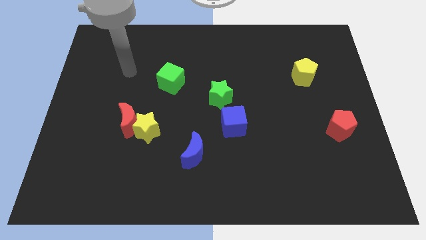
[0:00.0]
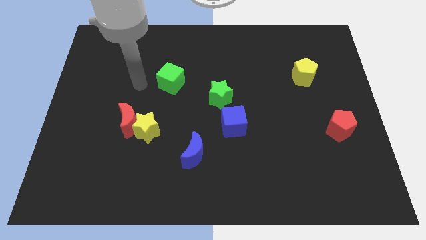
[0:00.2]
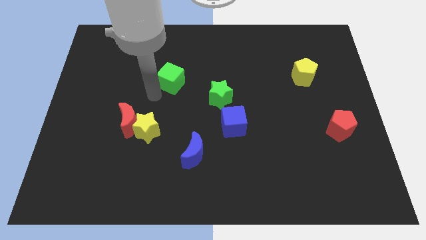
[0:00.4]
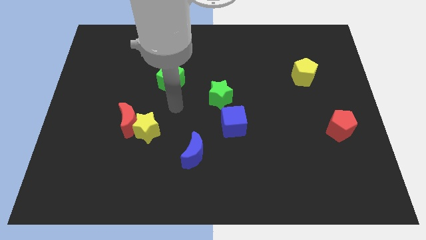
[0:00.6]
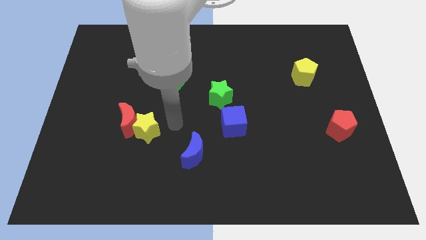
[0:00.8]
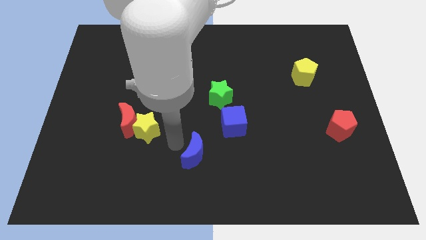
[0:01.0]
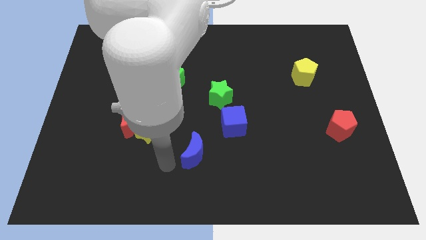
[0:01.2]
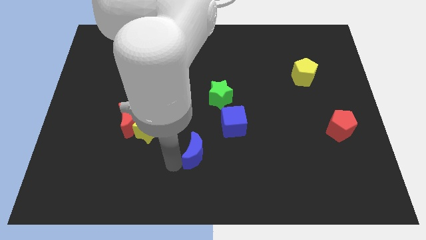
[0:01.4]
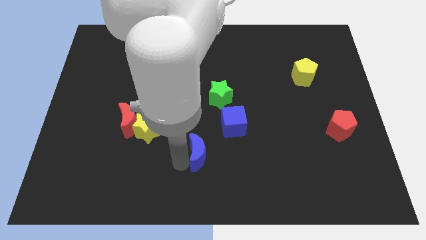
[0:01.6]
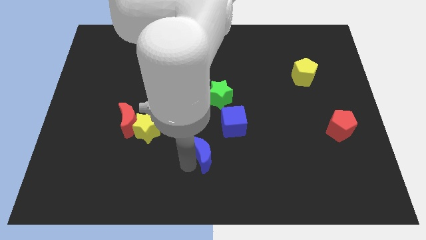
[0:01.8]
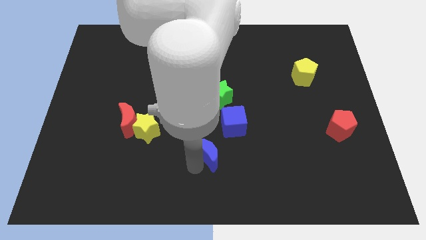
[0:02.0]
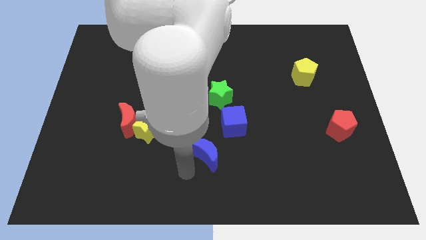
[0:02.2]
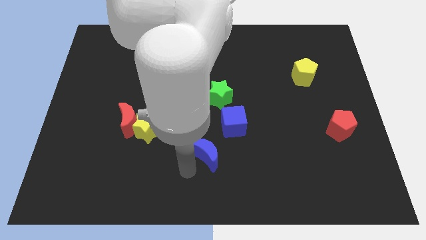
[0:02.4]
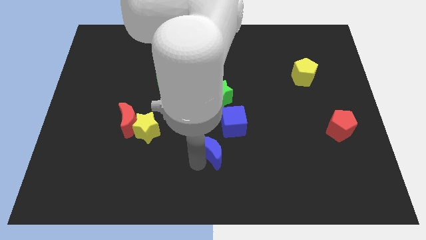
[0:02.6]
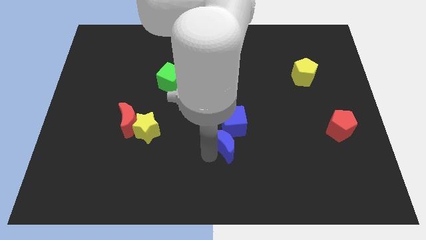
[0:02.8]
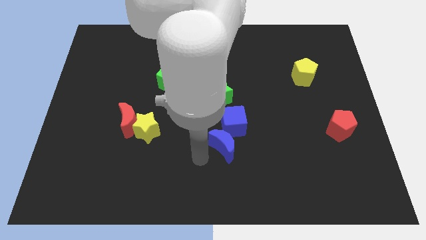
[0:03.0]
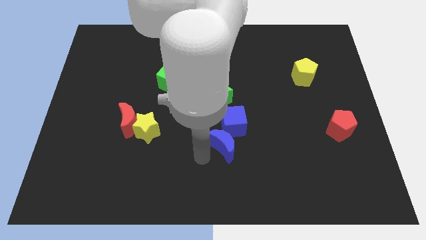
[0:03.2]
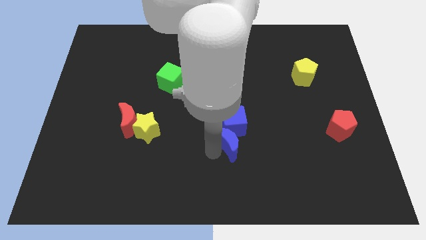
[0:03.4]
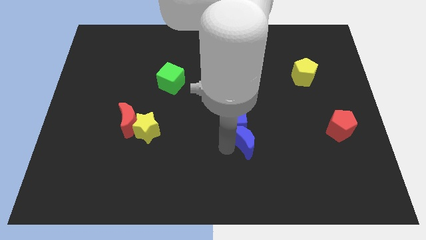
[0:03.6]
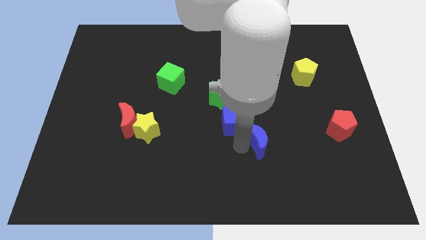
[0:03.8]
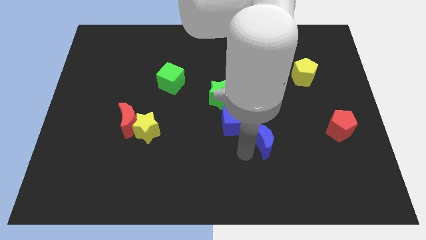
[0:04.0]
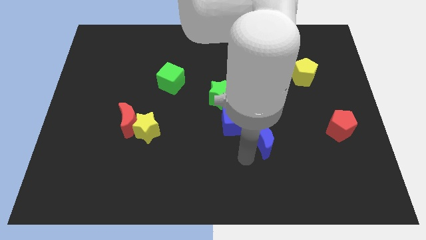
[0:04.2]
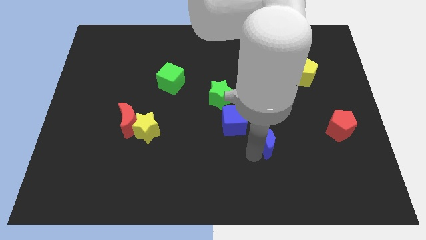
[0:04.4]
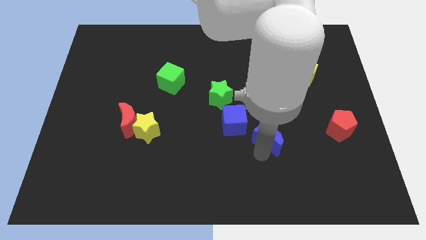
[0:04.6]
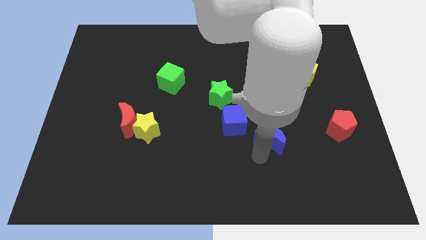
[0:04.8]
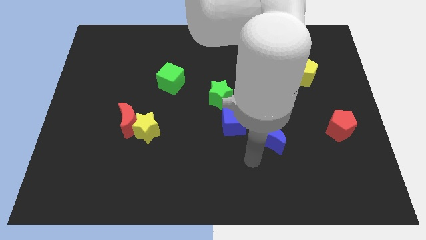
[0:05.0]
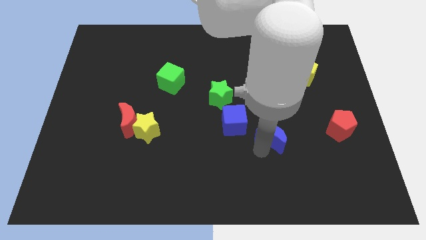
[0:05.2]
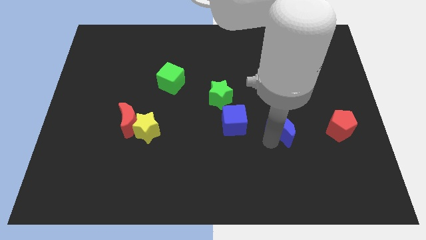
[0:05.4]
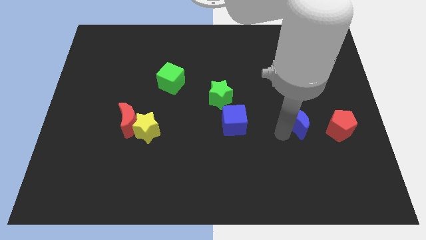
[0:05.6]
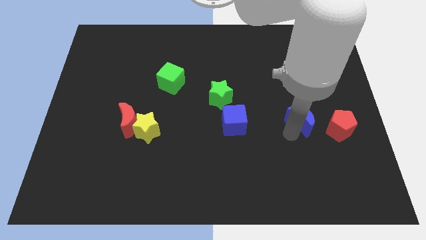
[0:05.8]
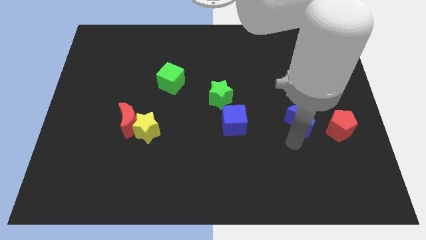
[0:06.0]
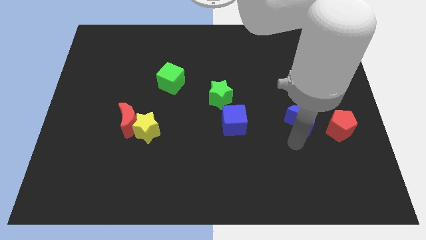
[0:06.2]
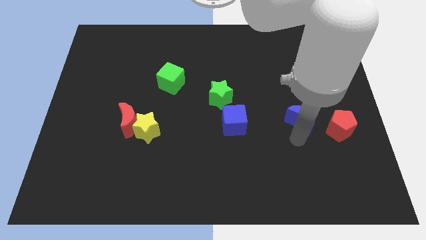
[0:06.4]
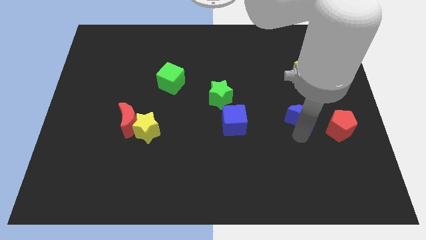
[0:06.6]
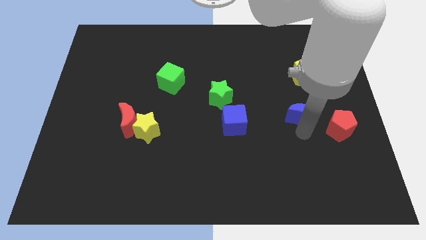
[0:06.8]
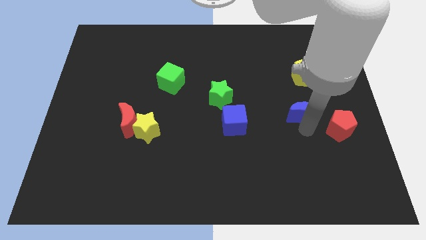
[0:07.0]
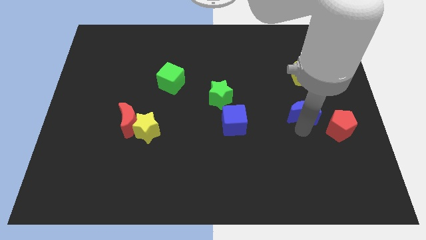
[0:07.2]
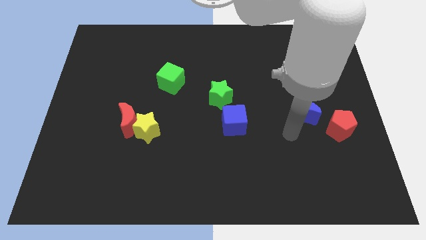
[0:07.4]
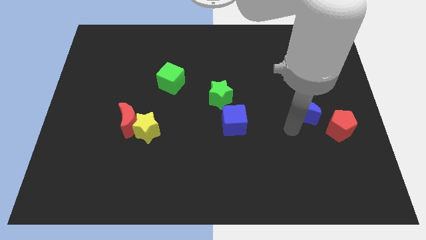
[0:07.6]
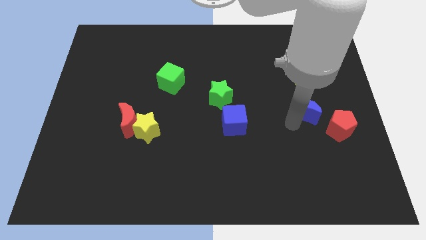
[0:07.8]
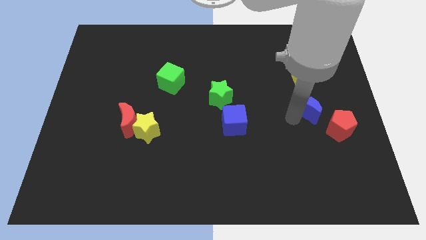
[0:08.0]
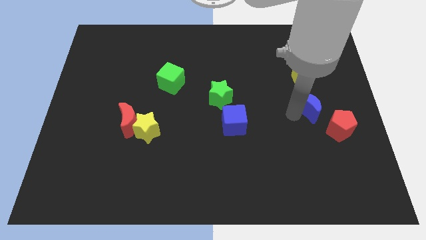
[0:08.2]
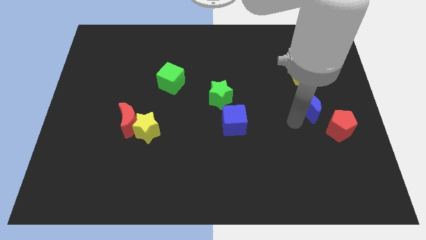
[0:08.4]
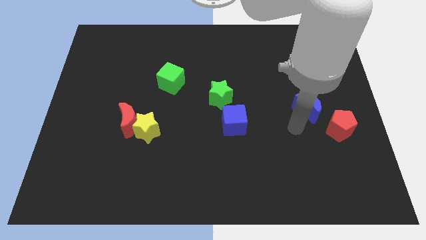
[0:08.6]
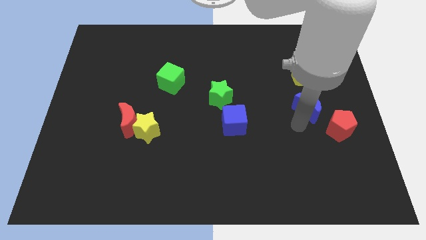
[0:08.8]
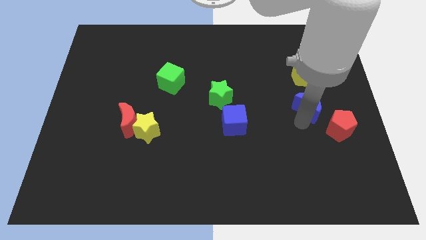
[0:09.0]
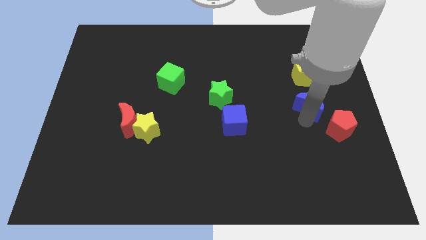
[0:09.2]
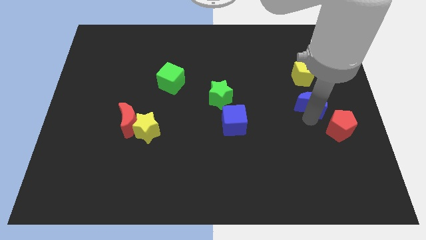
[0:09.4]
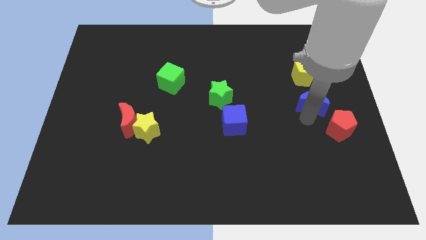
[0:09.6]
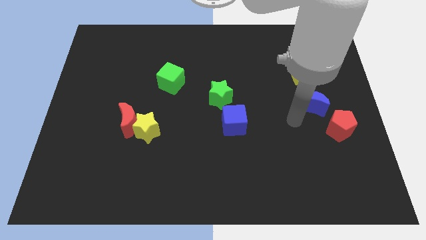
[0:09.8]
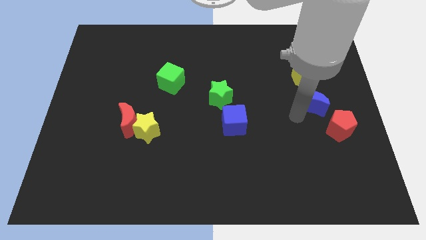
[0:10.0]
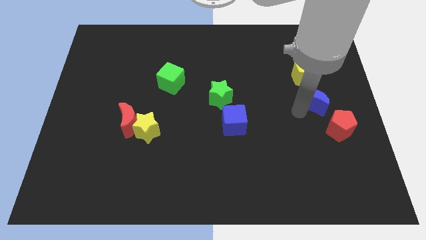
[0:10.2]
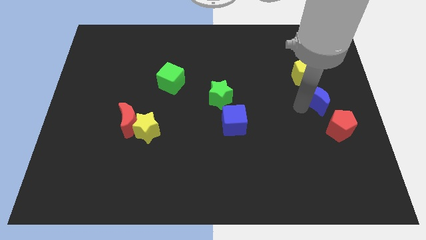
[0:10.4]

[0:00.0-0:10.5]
put the blue moon to the bottom right side of the yellow pentagon

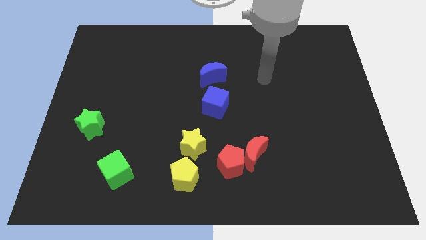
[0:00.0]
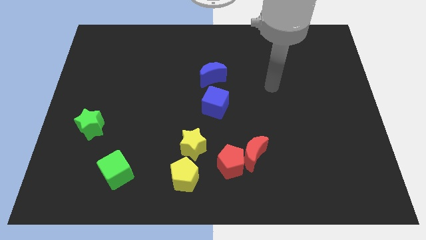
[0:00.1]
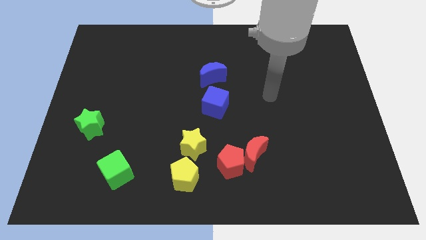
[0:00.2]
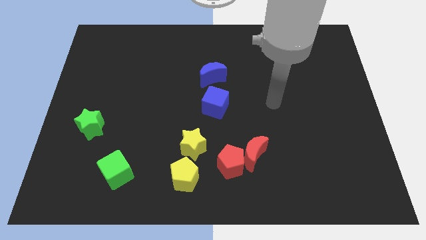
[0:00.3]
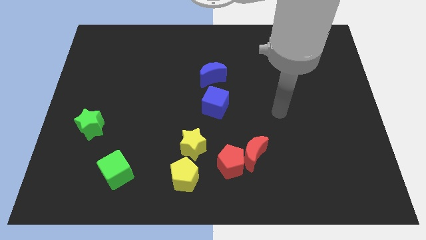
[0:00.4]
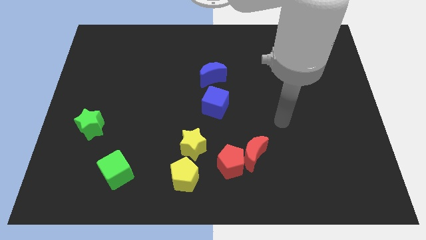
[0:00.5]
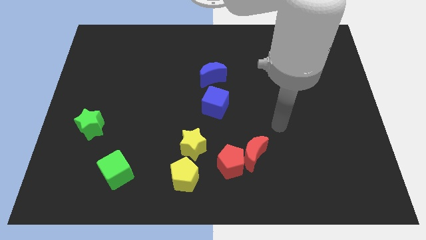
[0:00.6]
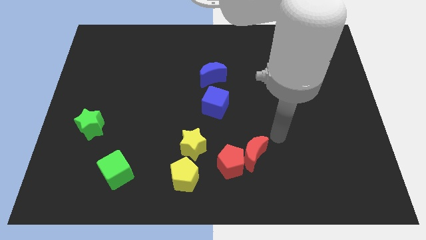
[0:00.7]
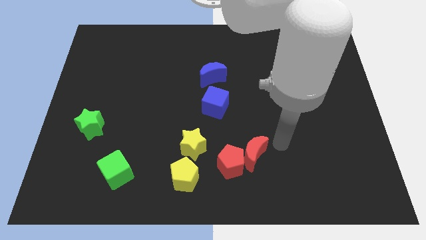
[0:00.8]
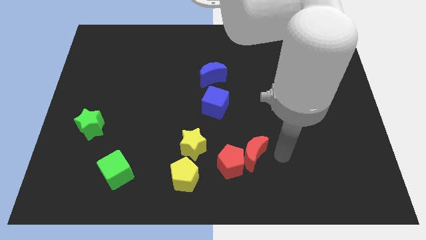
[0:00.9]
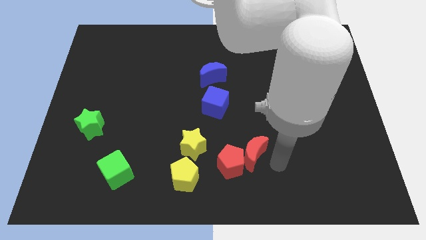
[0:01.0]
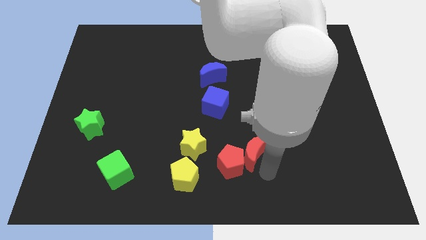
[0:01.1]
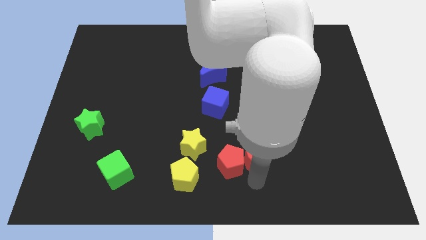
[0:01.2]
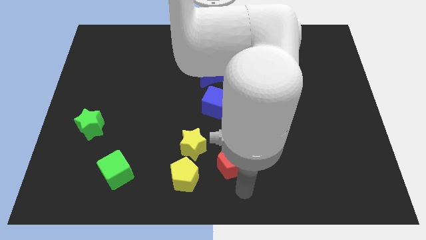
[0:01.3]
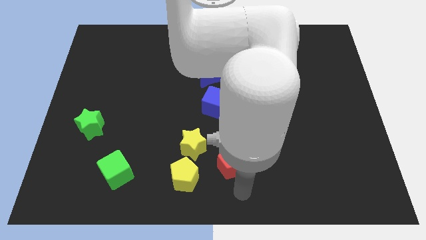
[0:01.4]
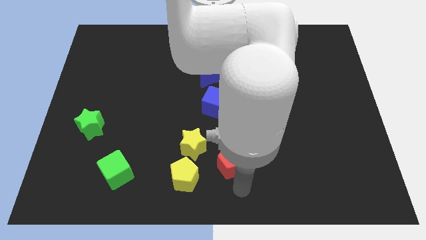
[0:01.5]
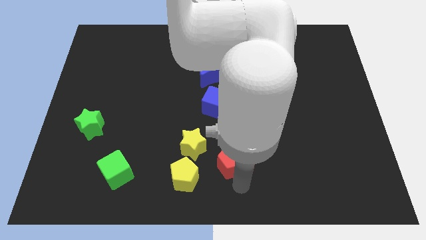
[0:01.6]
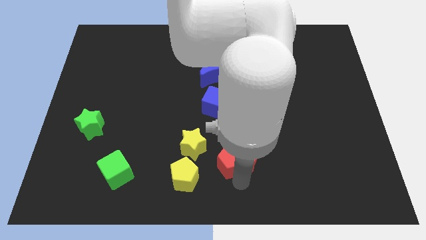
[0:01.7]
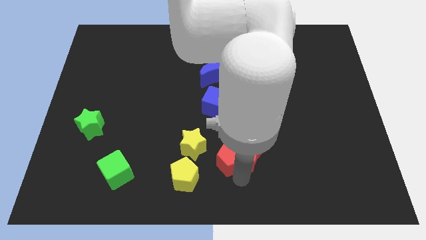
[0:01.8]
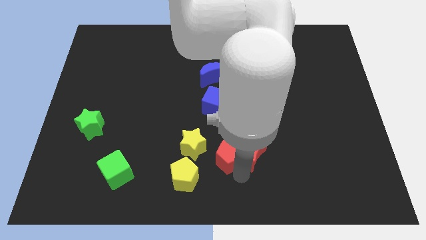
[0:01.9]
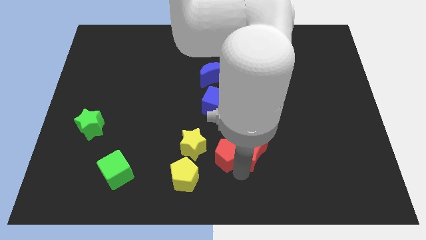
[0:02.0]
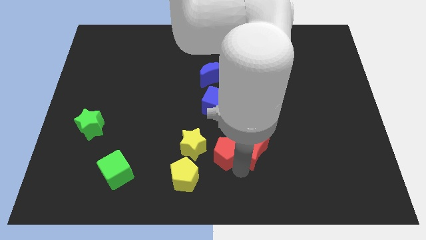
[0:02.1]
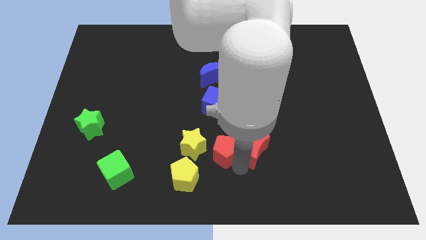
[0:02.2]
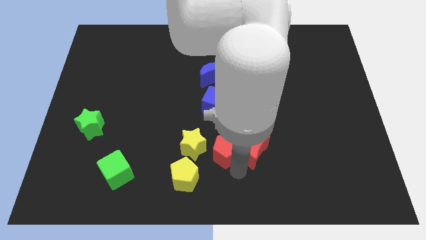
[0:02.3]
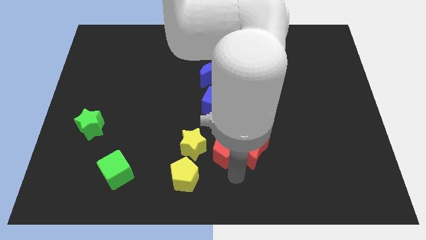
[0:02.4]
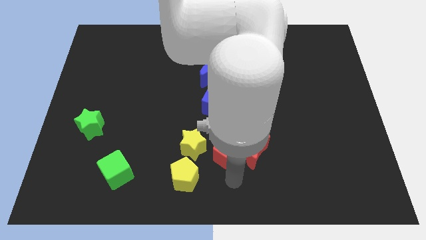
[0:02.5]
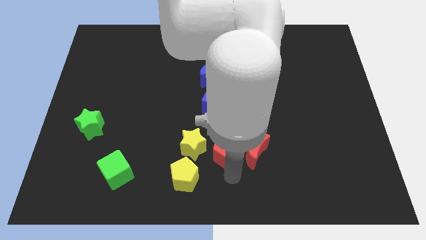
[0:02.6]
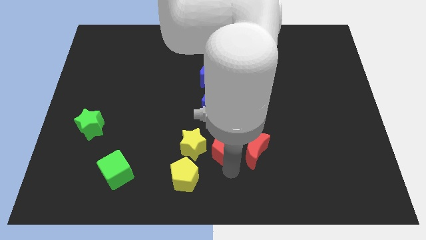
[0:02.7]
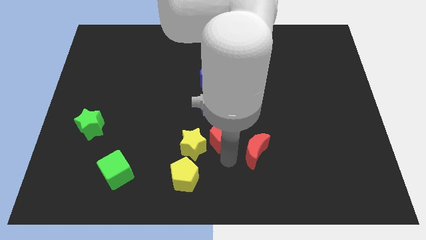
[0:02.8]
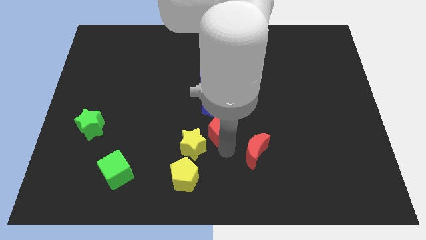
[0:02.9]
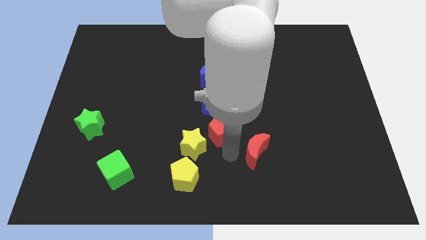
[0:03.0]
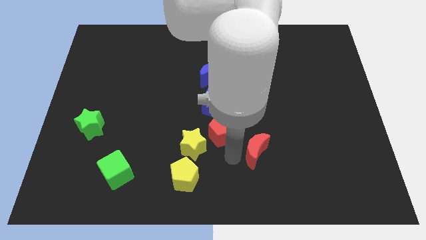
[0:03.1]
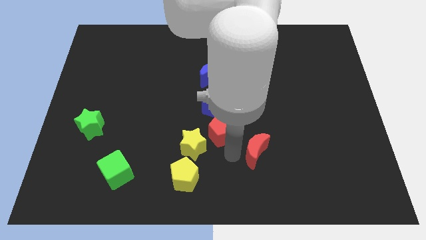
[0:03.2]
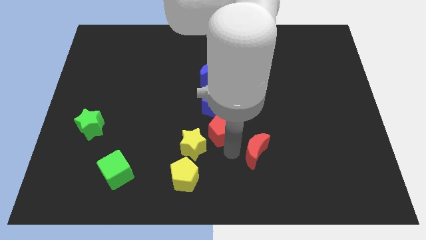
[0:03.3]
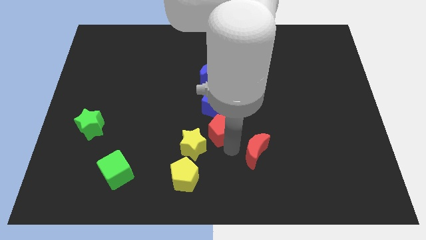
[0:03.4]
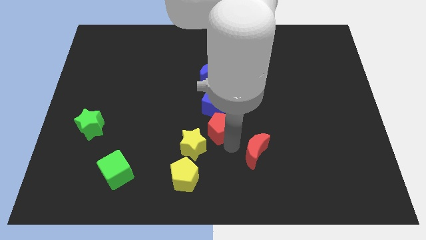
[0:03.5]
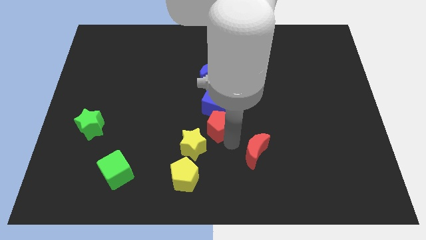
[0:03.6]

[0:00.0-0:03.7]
push the red pentagon below the blue moon
